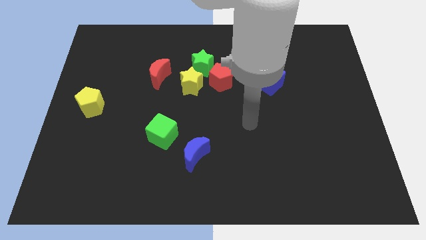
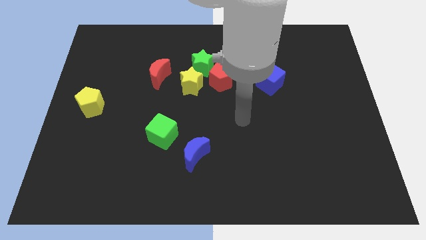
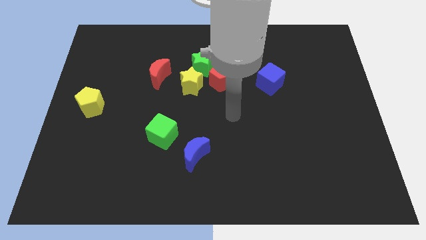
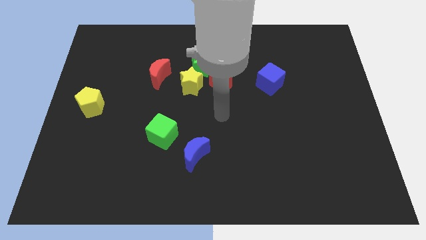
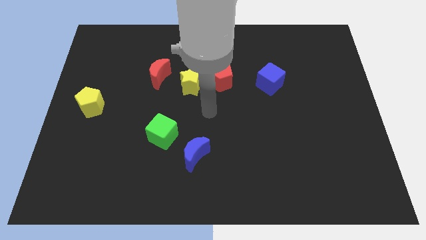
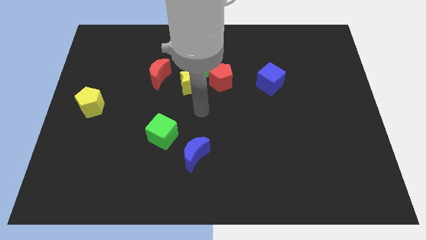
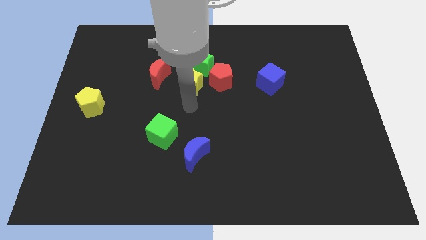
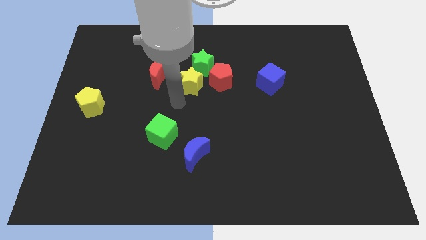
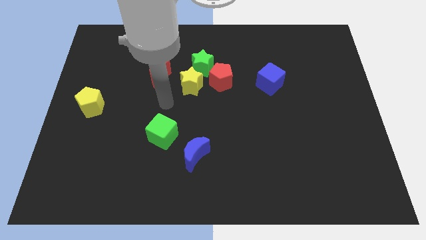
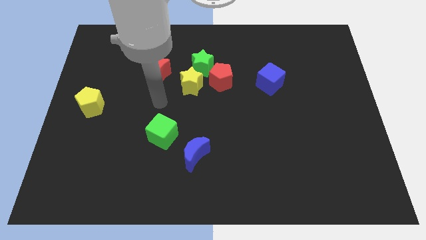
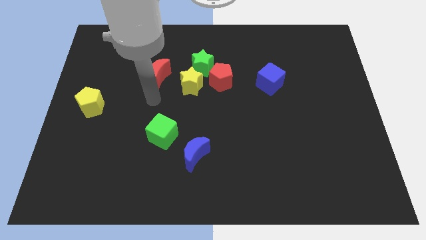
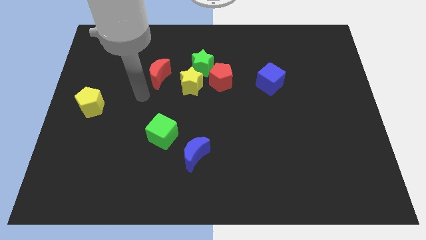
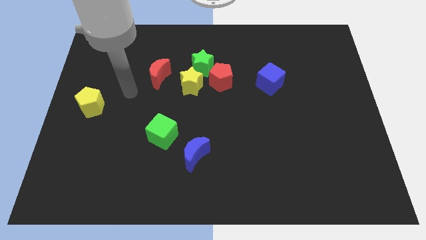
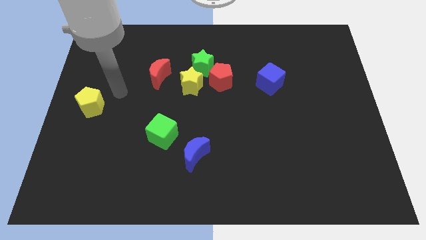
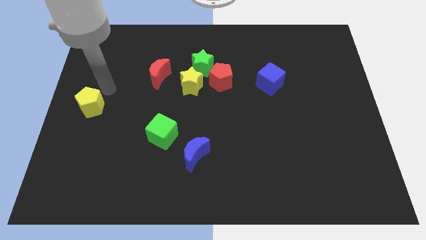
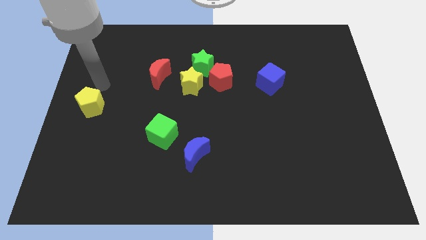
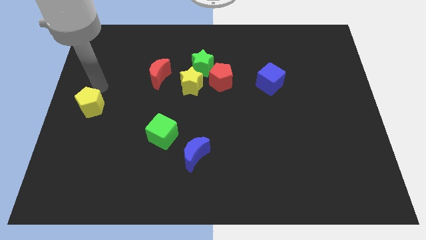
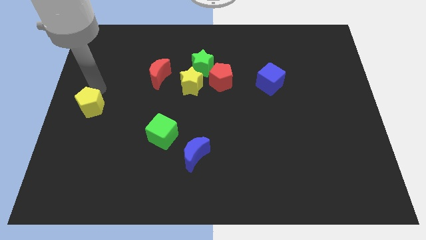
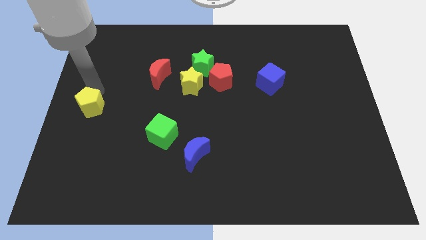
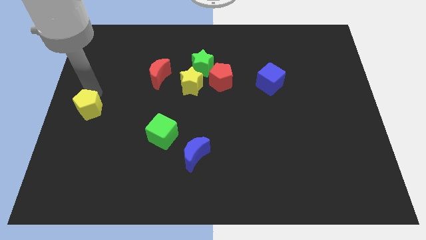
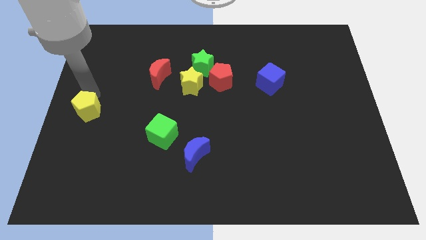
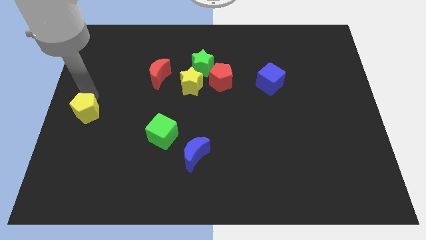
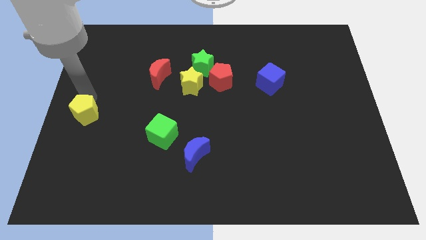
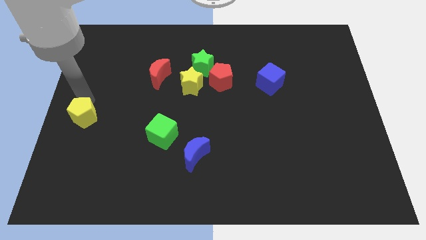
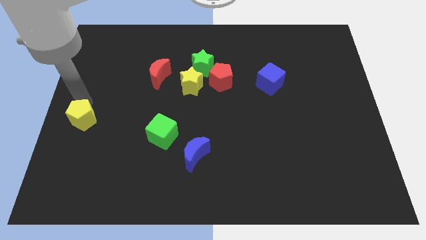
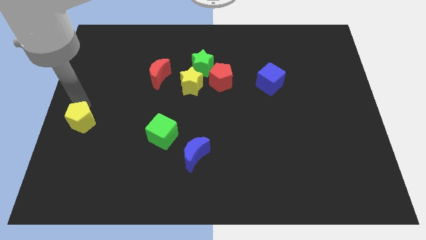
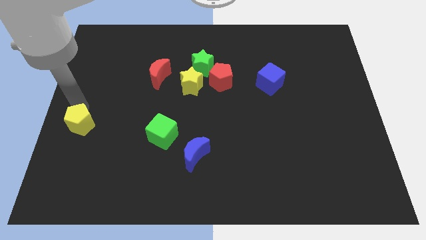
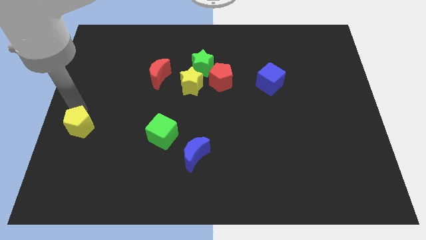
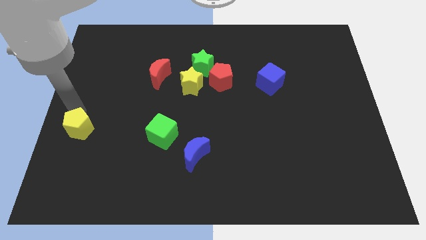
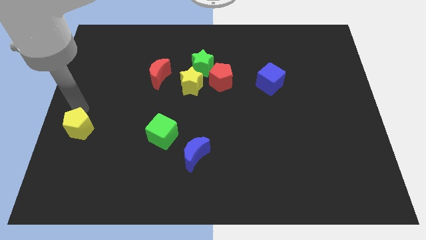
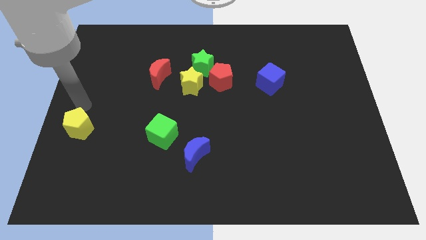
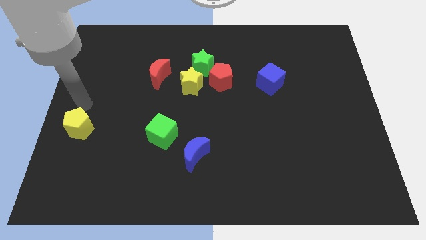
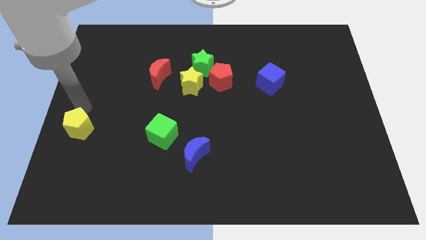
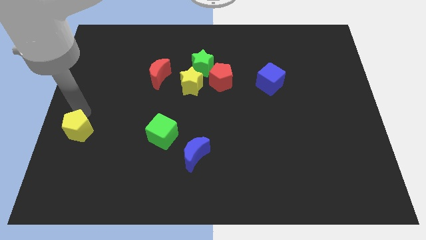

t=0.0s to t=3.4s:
move the yellow pentagon a bit down

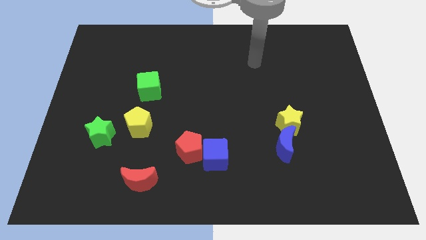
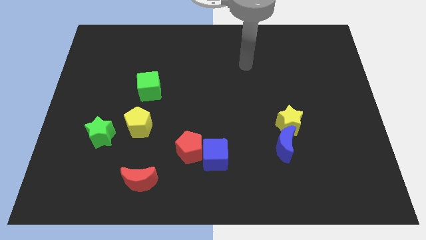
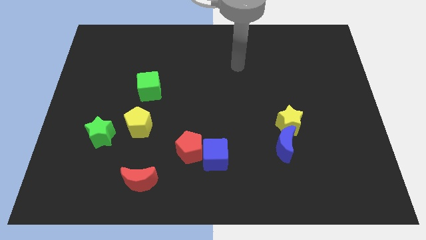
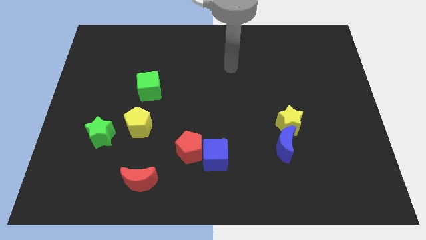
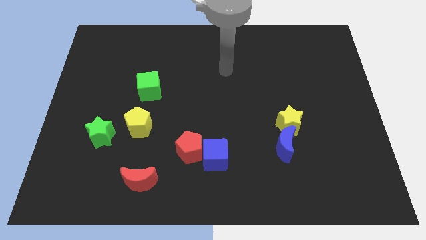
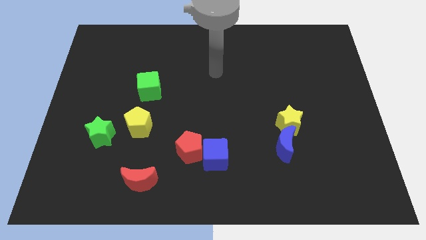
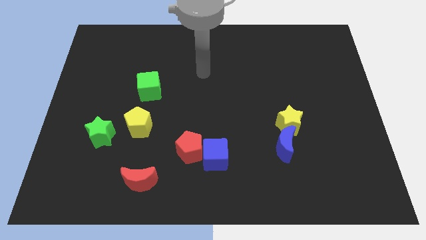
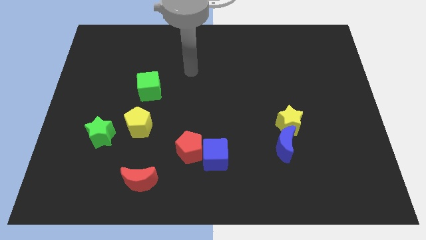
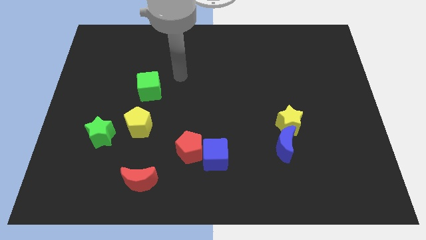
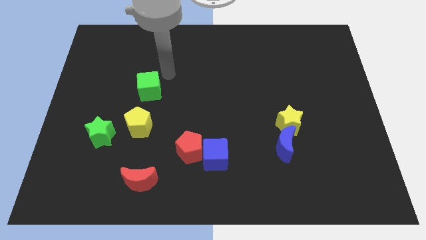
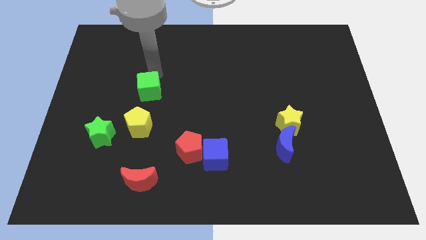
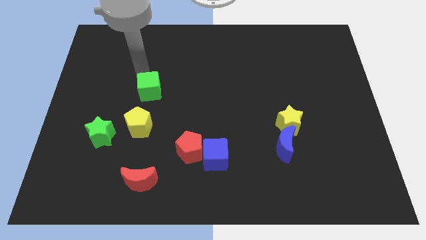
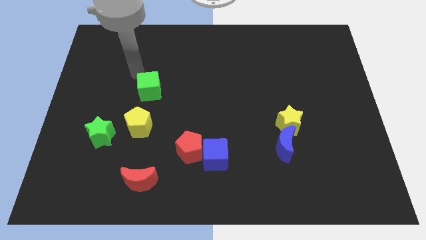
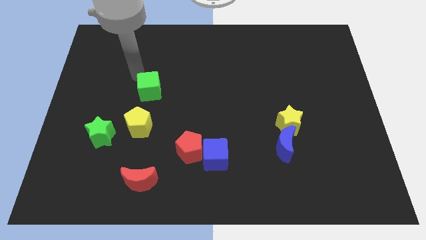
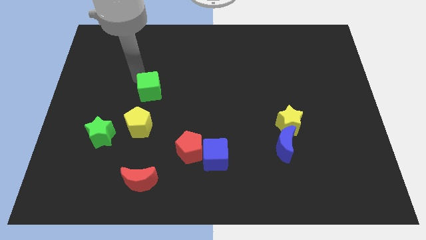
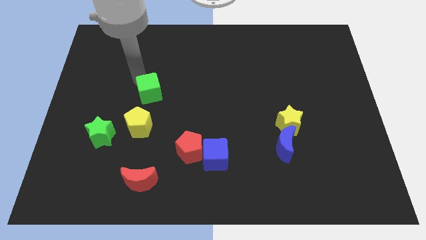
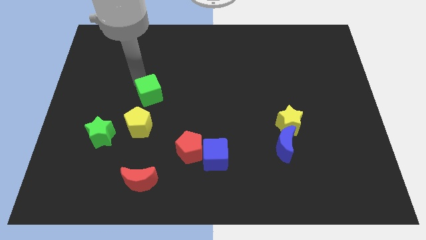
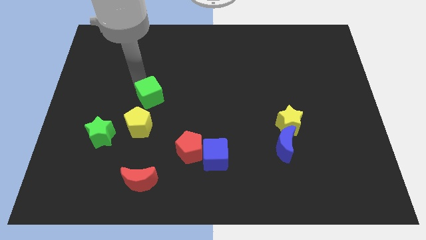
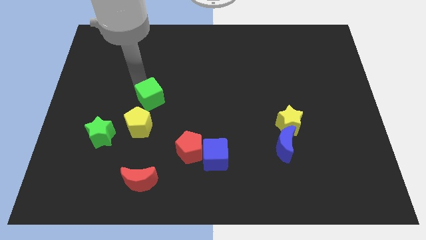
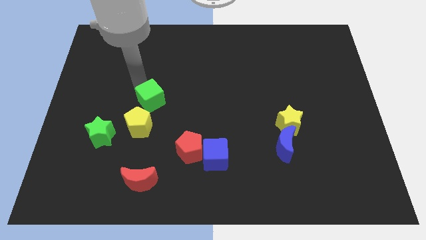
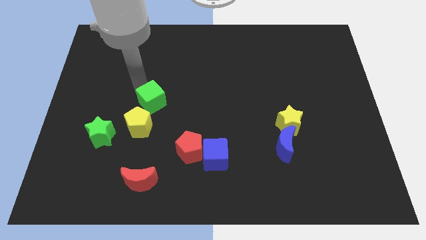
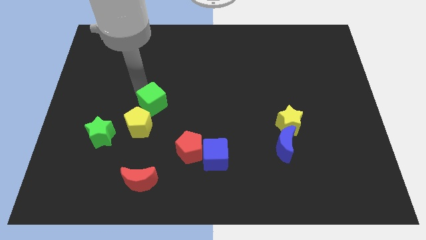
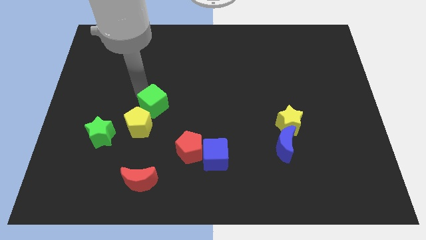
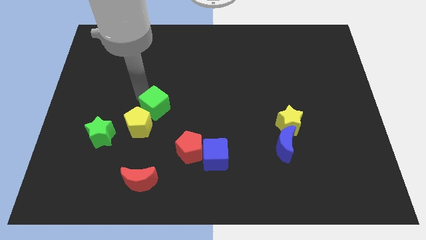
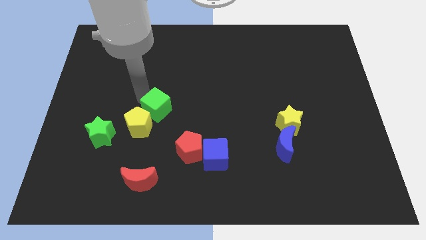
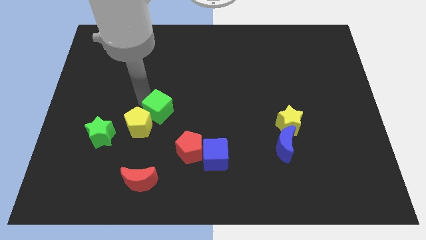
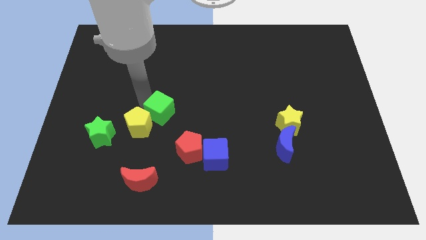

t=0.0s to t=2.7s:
slide the green cube downwards and then to the right slightly

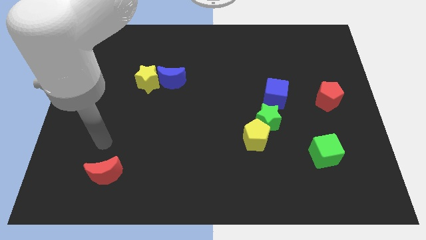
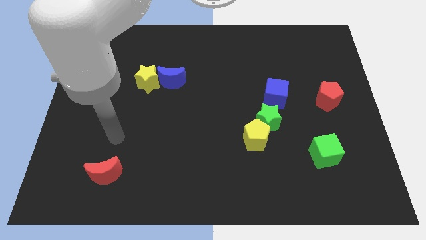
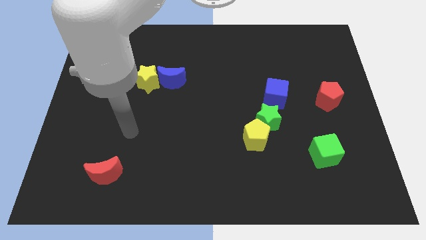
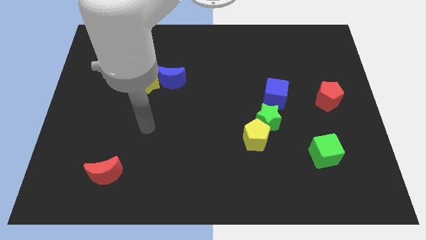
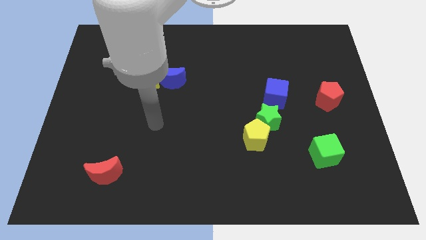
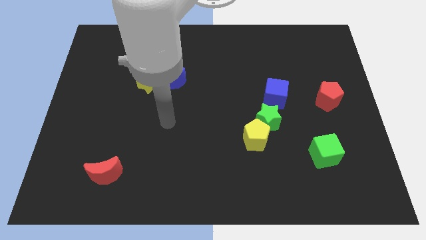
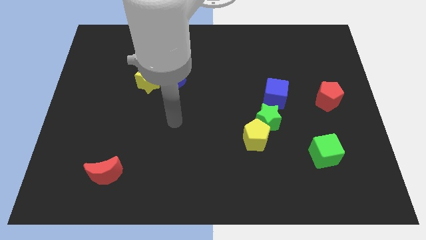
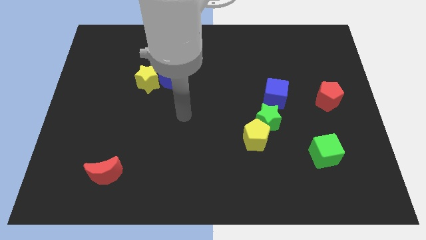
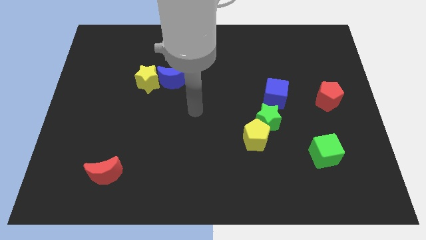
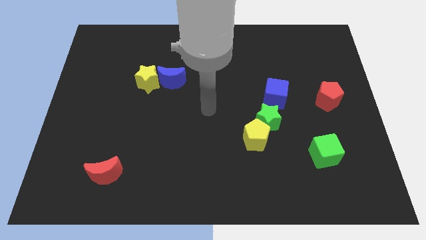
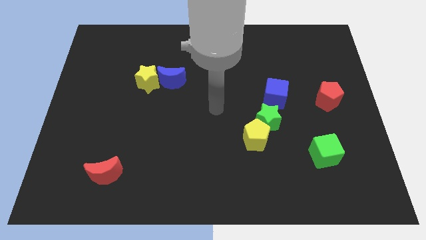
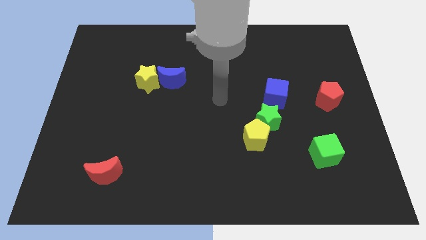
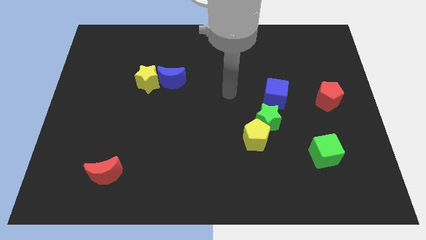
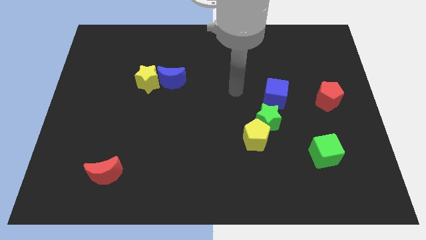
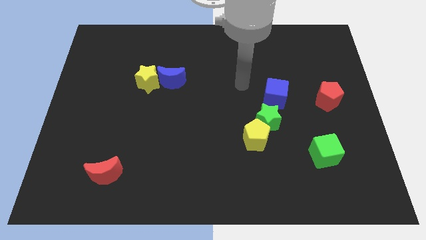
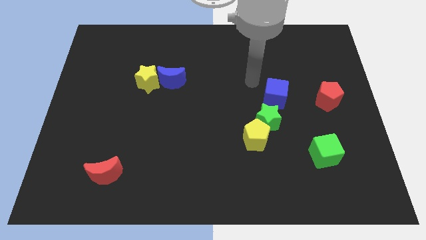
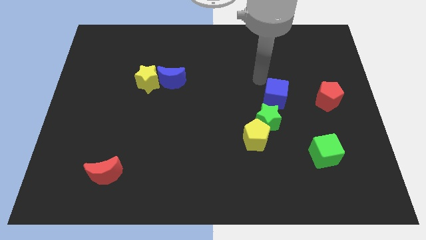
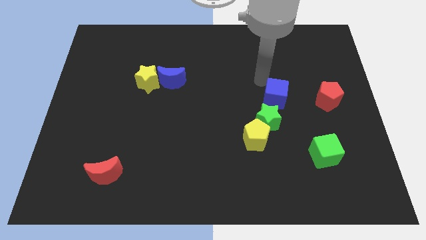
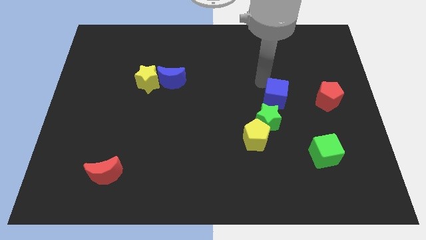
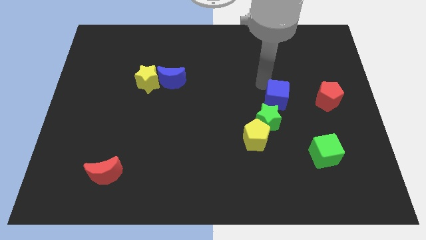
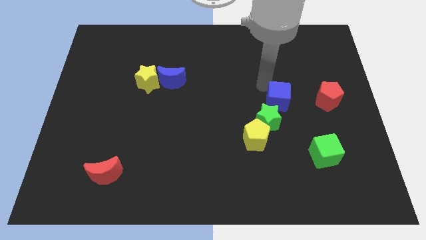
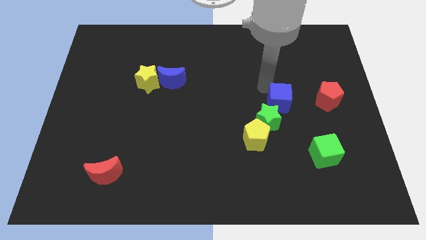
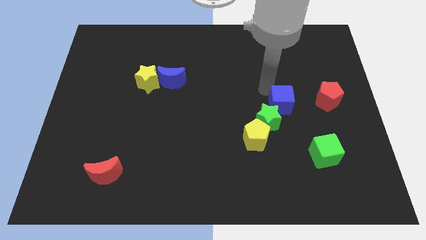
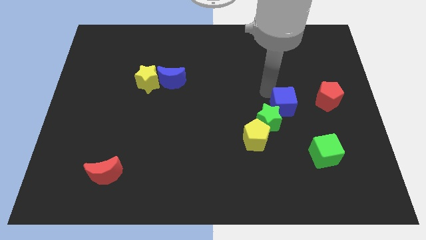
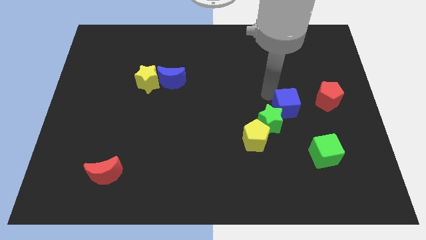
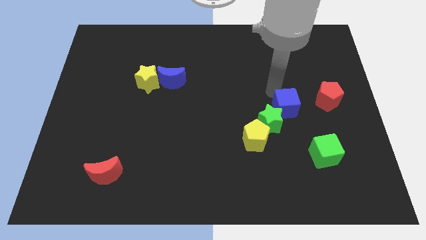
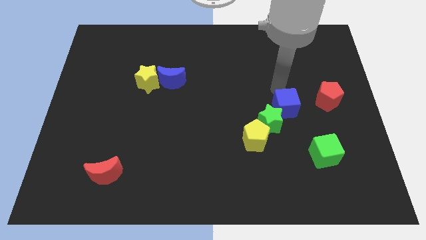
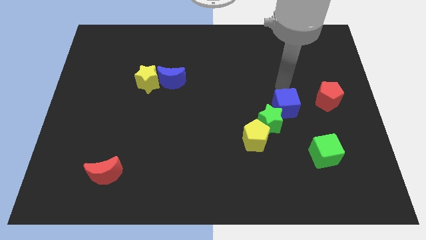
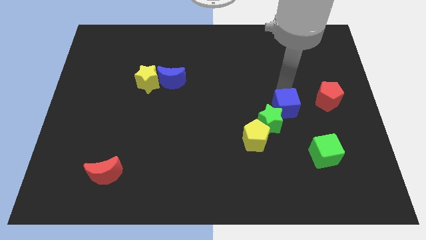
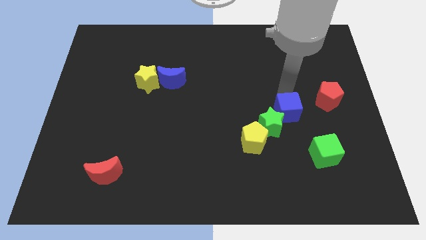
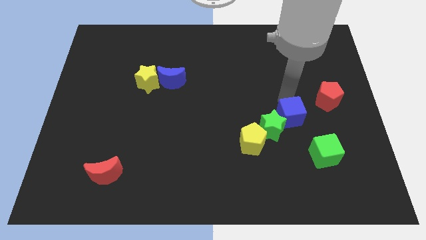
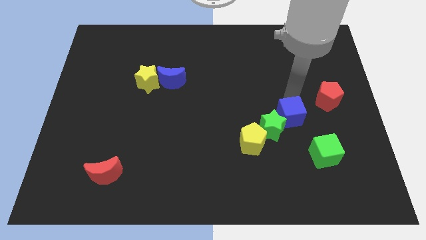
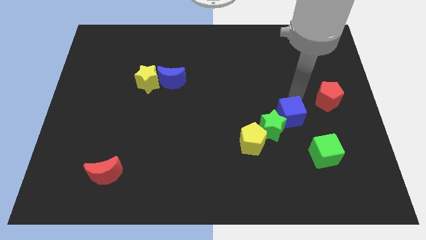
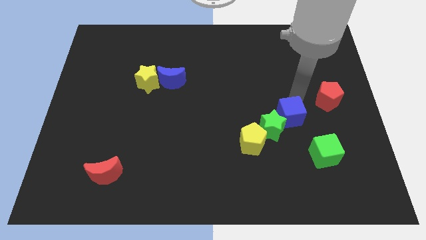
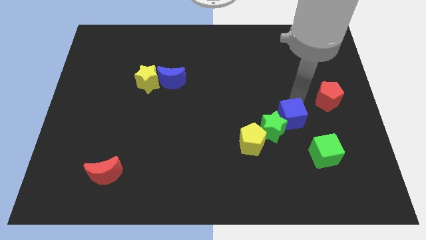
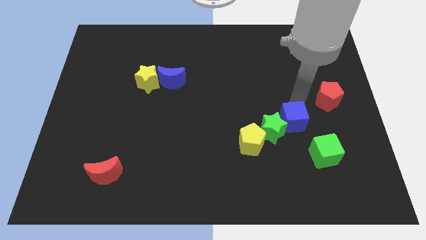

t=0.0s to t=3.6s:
push the blue cube downwards a little bit
